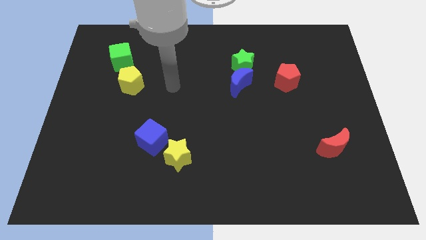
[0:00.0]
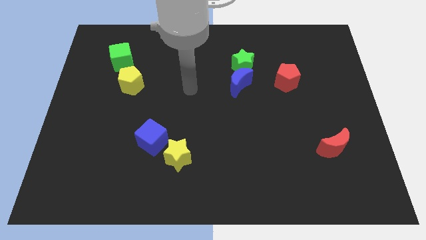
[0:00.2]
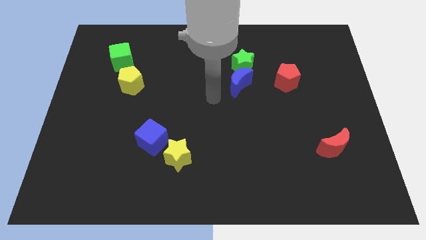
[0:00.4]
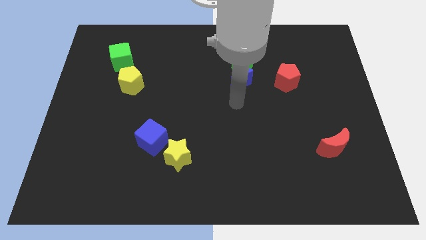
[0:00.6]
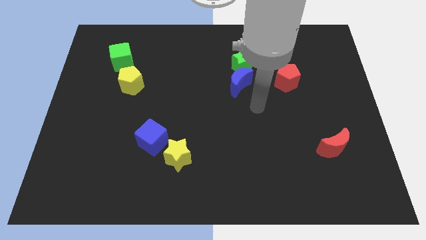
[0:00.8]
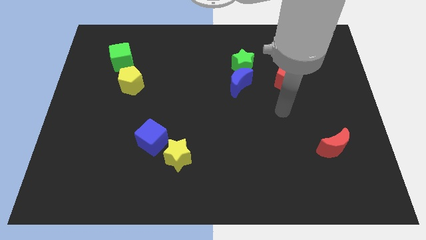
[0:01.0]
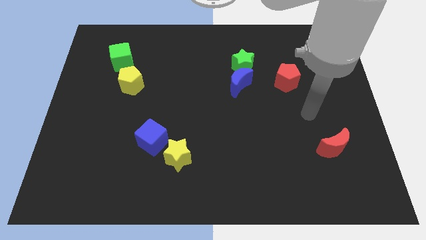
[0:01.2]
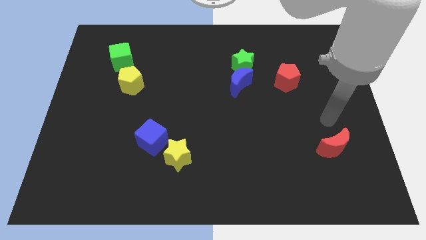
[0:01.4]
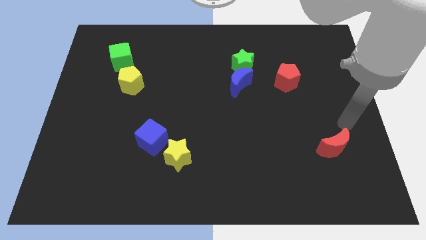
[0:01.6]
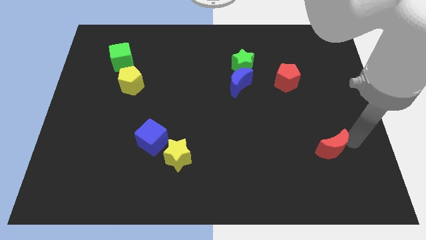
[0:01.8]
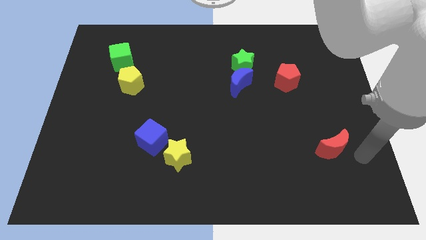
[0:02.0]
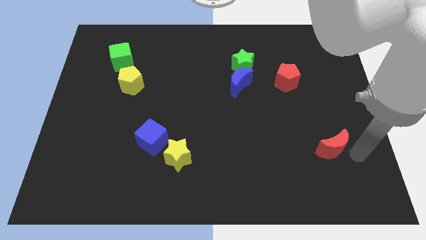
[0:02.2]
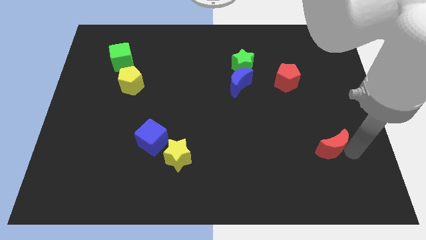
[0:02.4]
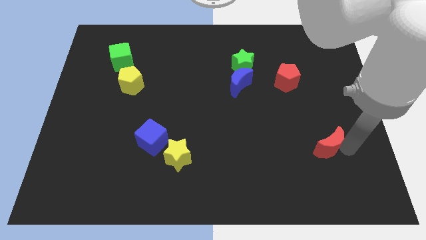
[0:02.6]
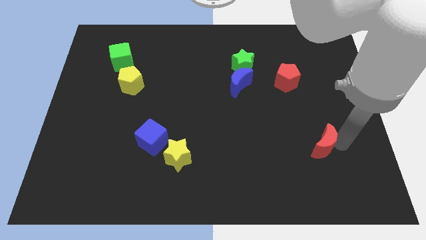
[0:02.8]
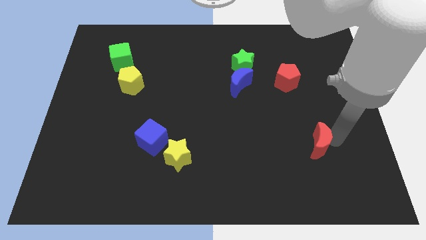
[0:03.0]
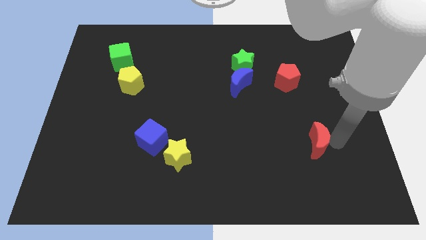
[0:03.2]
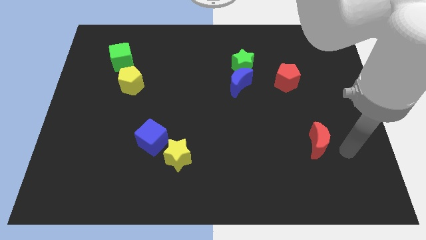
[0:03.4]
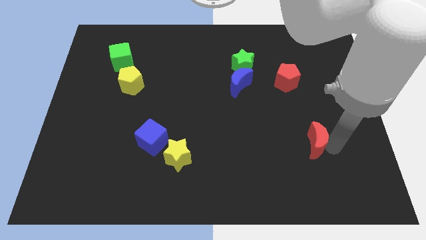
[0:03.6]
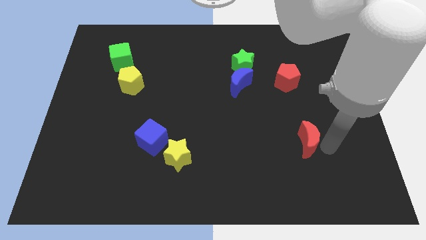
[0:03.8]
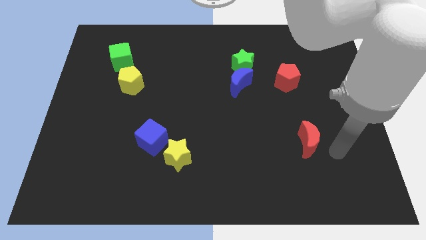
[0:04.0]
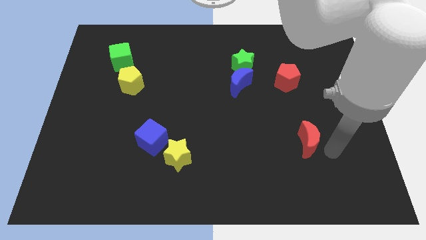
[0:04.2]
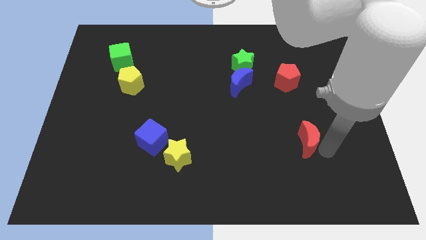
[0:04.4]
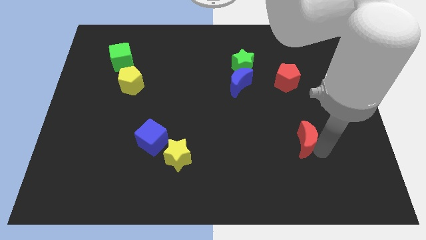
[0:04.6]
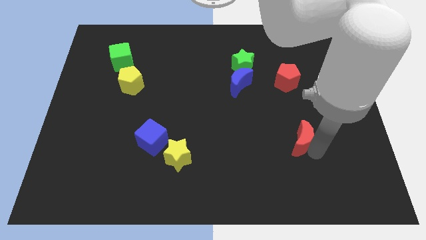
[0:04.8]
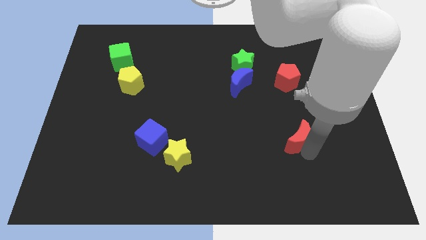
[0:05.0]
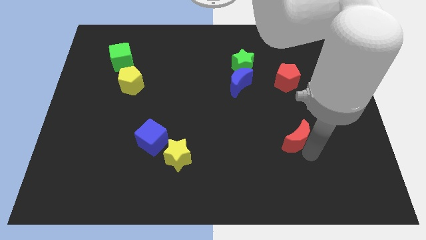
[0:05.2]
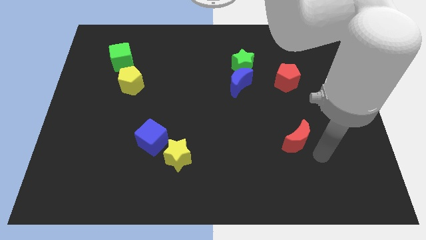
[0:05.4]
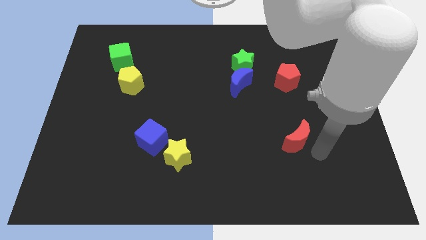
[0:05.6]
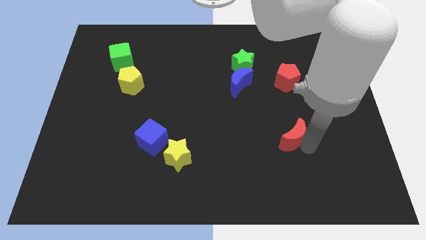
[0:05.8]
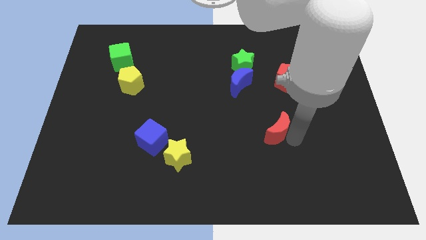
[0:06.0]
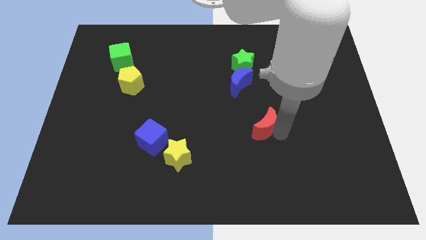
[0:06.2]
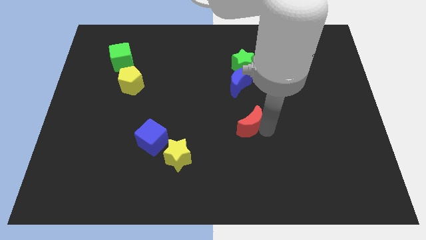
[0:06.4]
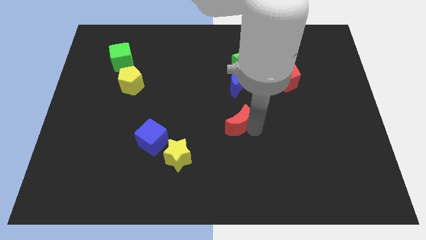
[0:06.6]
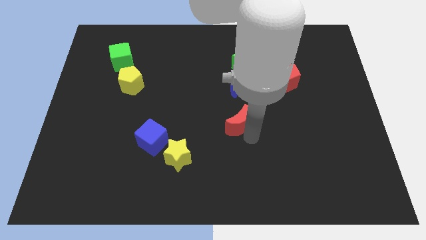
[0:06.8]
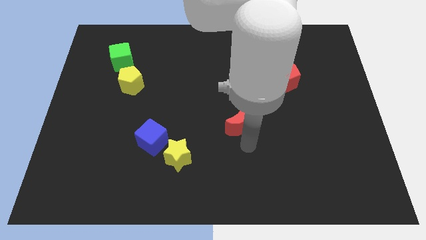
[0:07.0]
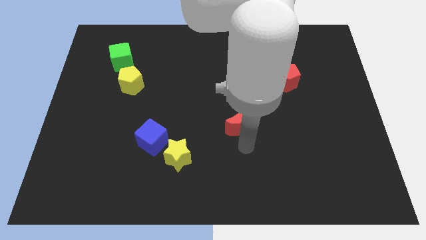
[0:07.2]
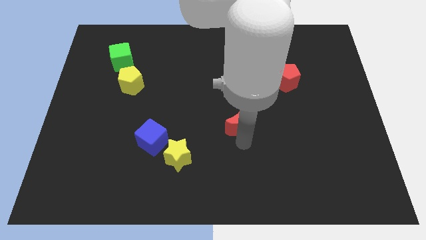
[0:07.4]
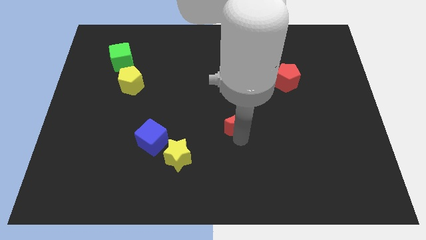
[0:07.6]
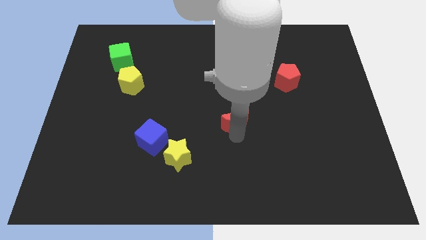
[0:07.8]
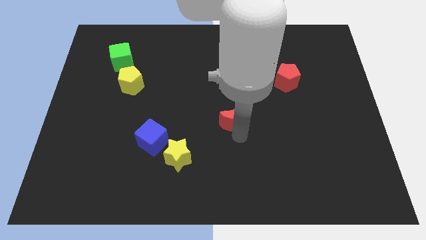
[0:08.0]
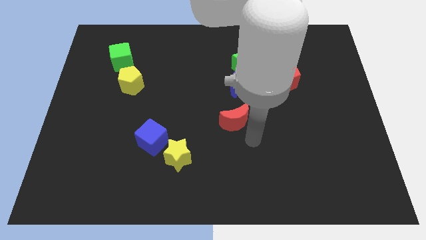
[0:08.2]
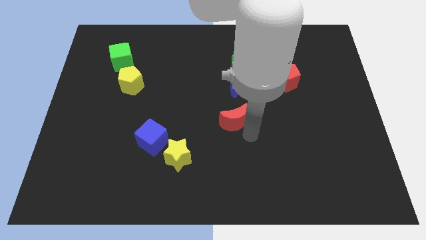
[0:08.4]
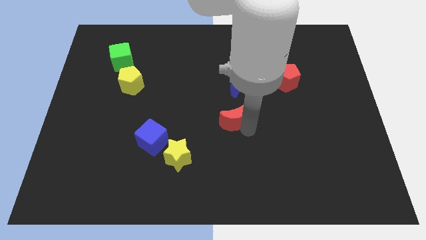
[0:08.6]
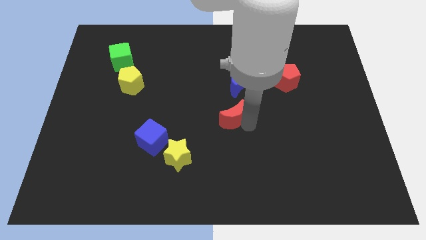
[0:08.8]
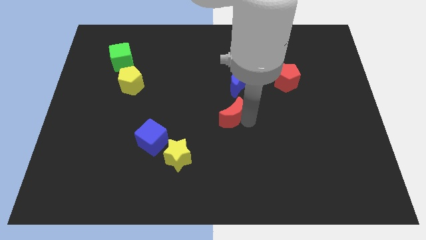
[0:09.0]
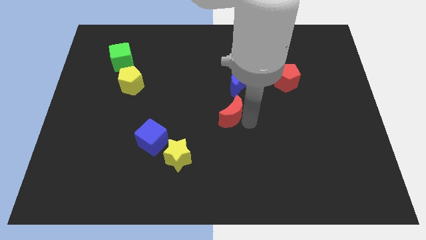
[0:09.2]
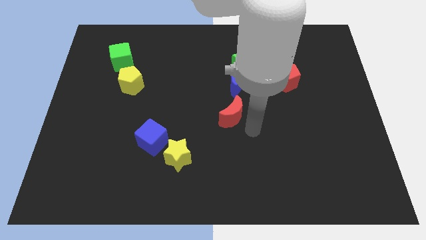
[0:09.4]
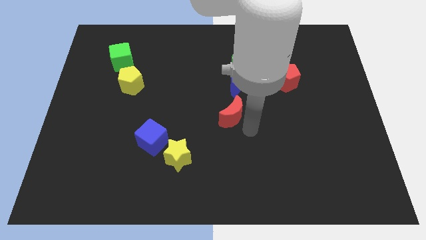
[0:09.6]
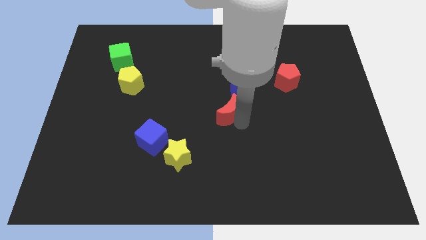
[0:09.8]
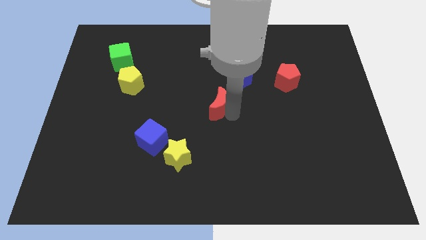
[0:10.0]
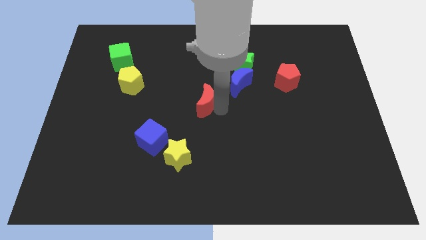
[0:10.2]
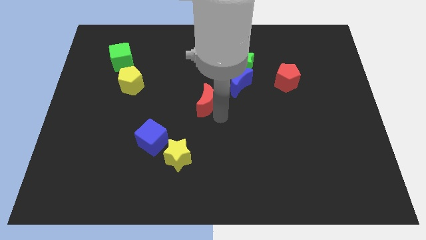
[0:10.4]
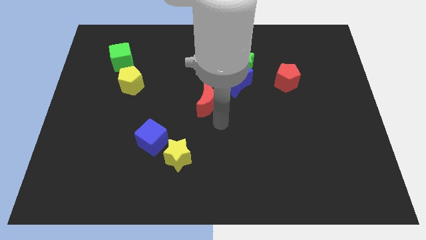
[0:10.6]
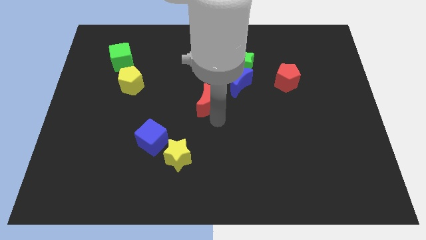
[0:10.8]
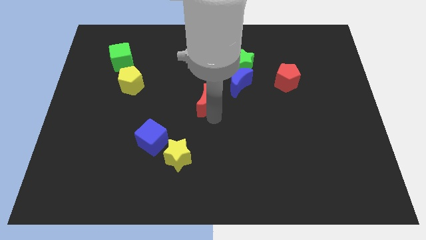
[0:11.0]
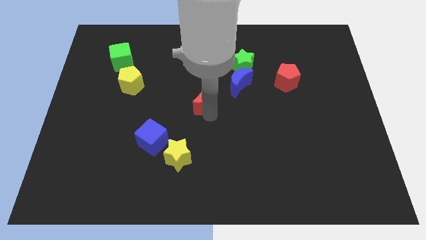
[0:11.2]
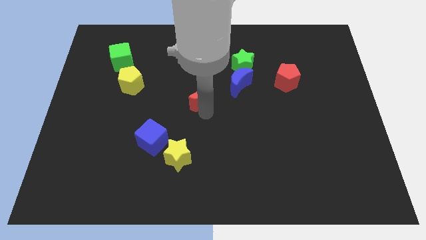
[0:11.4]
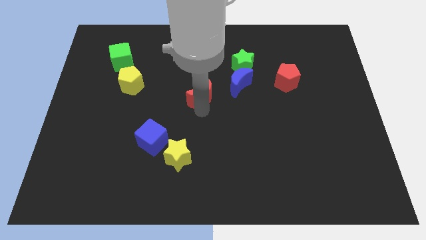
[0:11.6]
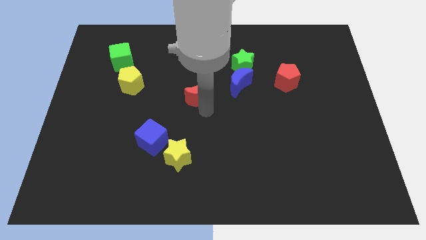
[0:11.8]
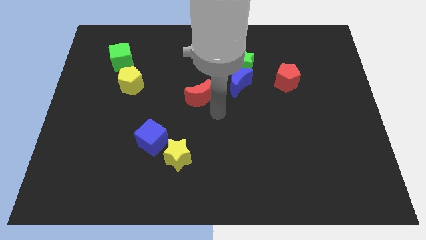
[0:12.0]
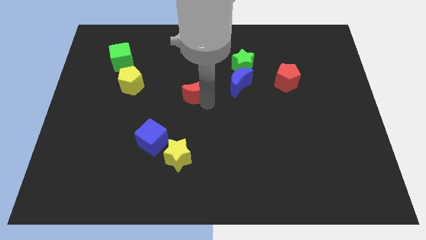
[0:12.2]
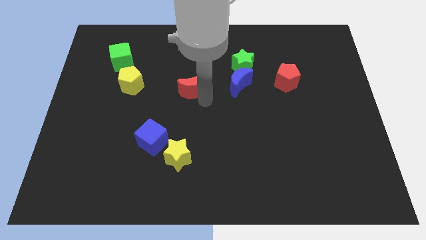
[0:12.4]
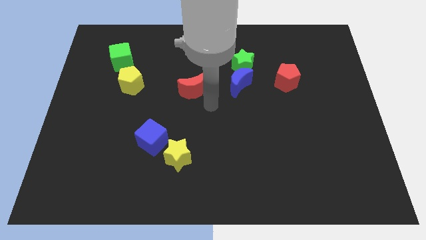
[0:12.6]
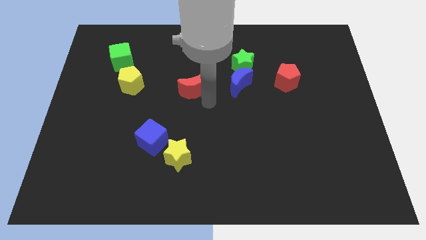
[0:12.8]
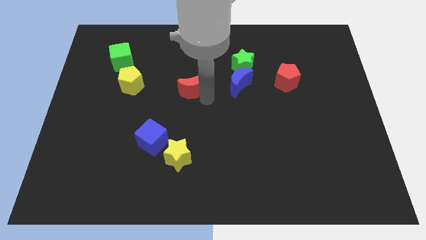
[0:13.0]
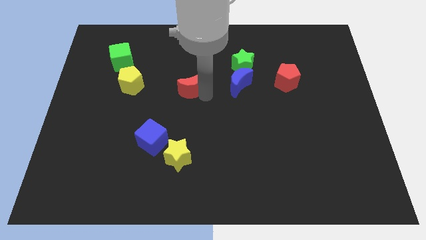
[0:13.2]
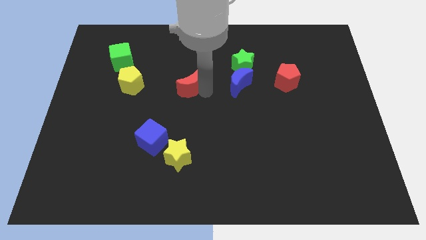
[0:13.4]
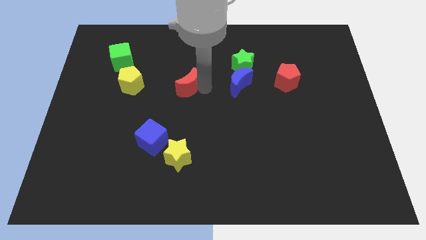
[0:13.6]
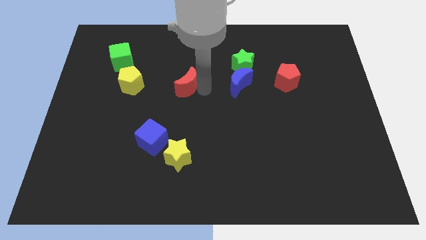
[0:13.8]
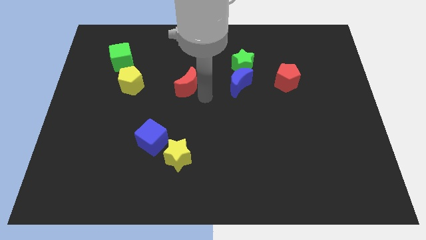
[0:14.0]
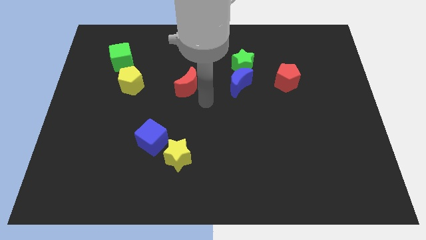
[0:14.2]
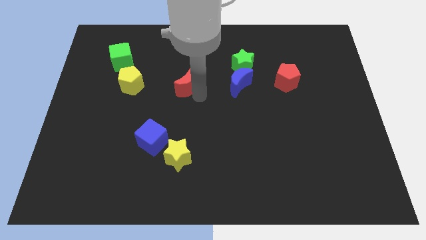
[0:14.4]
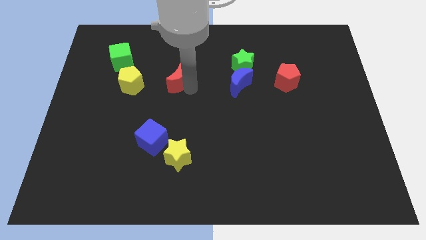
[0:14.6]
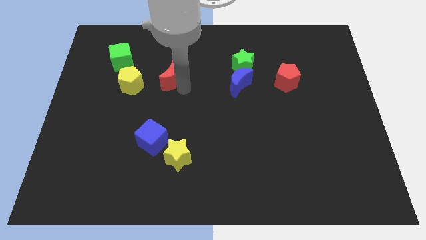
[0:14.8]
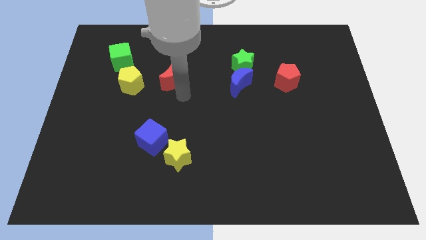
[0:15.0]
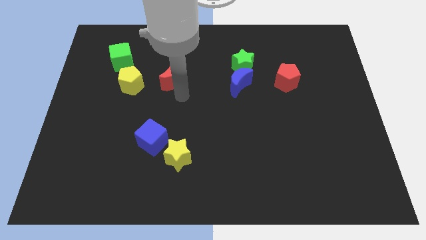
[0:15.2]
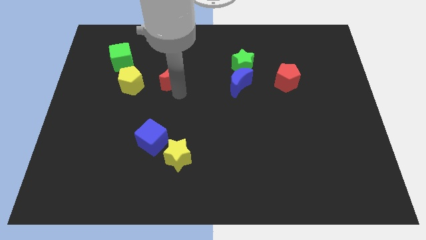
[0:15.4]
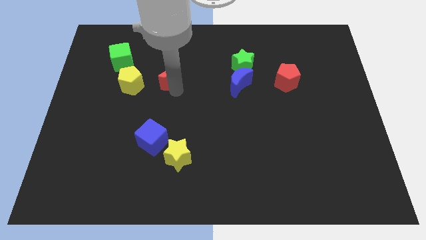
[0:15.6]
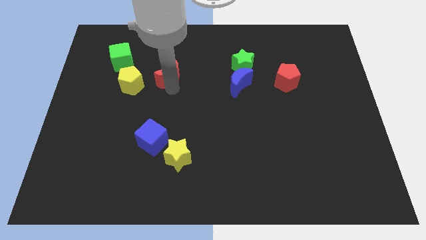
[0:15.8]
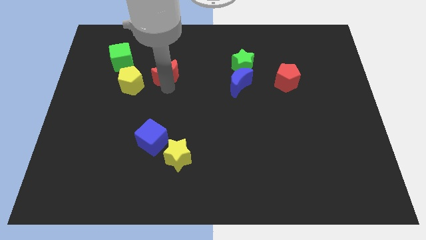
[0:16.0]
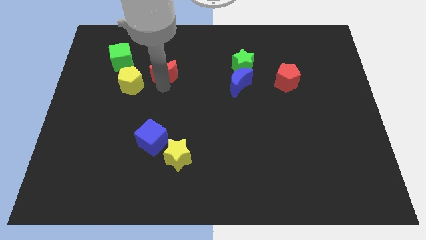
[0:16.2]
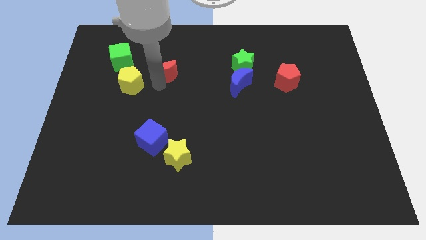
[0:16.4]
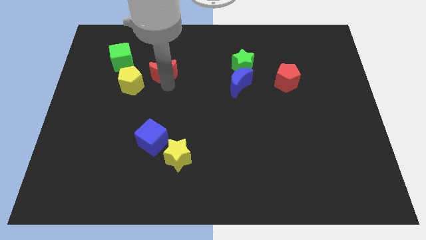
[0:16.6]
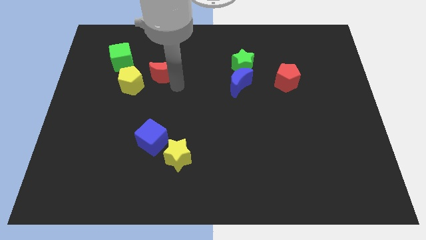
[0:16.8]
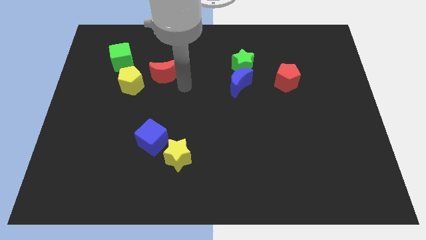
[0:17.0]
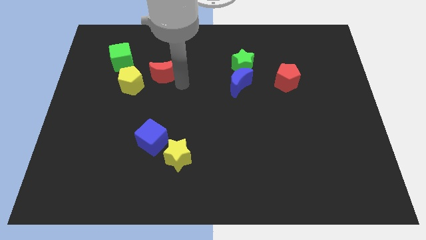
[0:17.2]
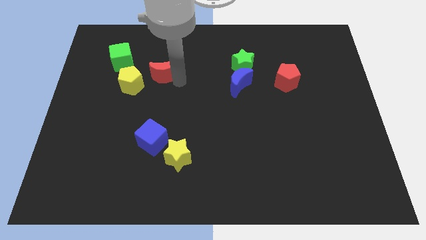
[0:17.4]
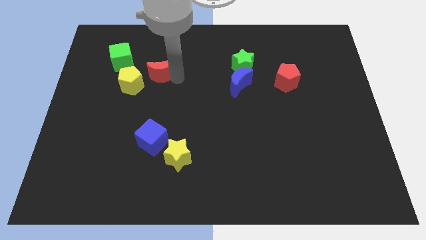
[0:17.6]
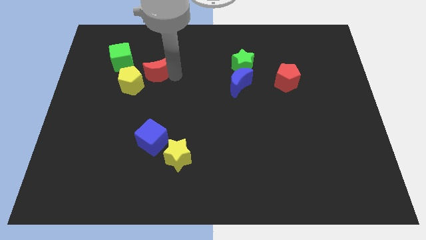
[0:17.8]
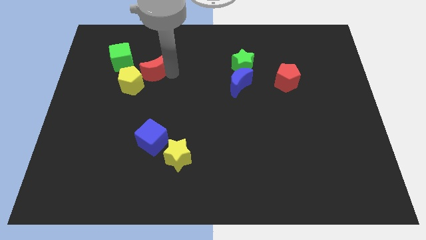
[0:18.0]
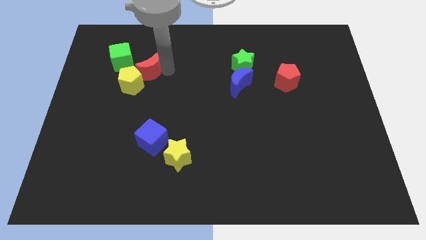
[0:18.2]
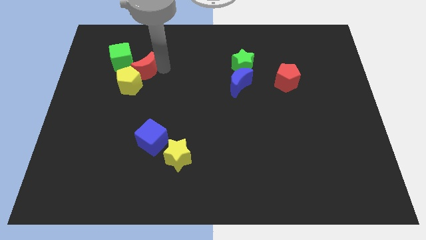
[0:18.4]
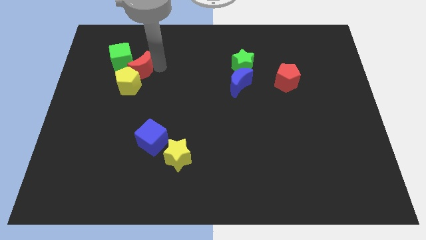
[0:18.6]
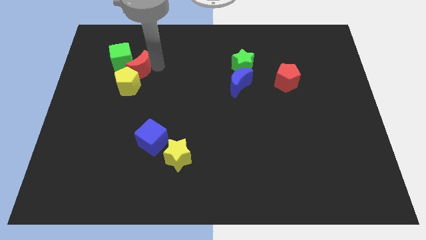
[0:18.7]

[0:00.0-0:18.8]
push the red moon close to the green cube
